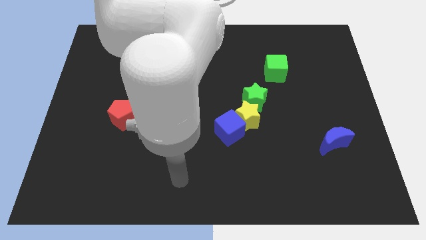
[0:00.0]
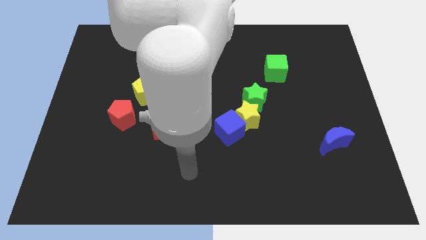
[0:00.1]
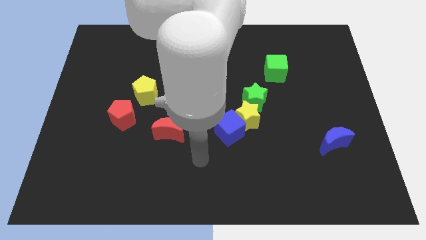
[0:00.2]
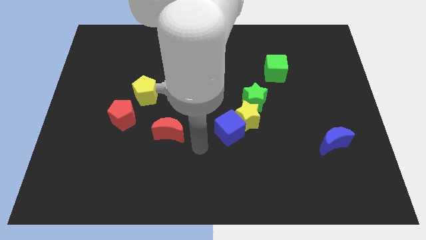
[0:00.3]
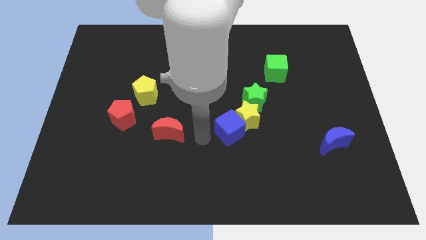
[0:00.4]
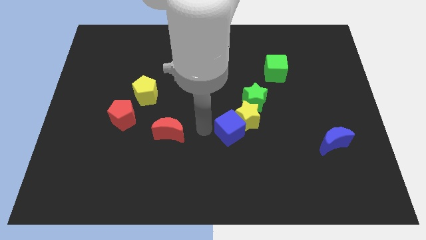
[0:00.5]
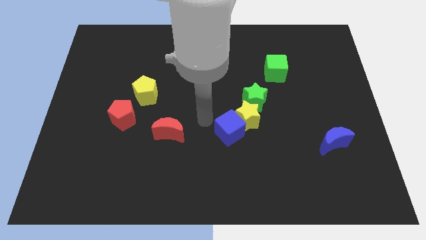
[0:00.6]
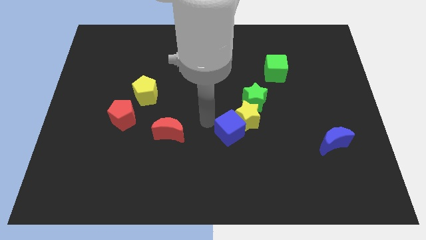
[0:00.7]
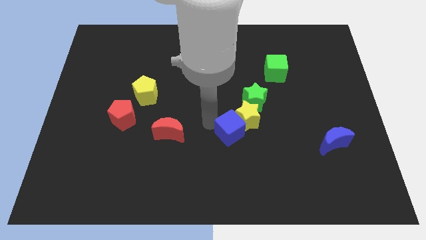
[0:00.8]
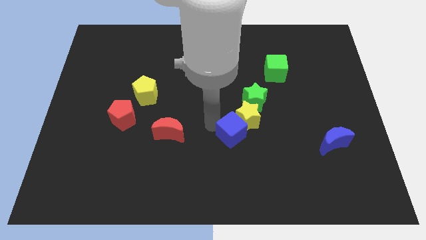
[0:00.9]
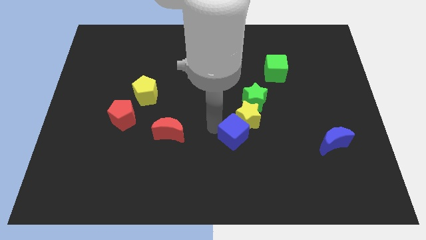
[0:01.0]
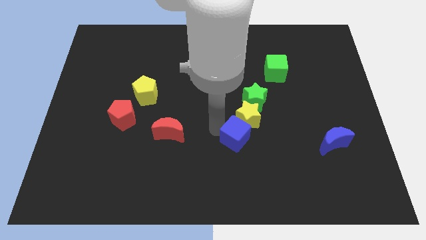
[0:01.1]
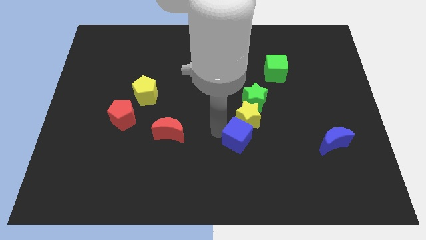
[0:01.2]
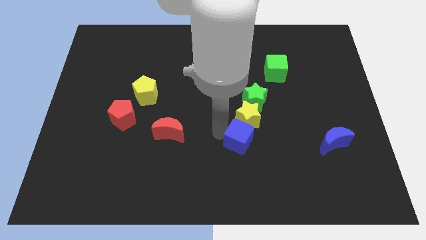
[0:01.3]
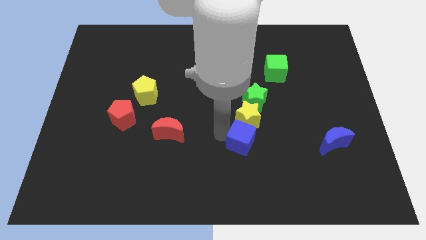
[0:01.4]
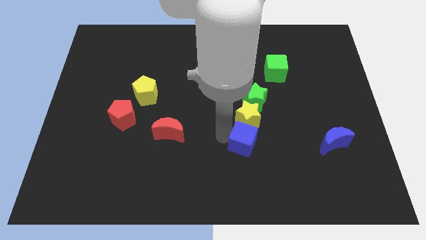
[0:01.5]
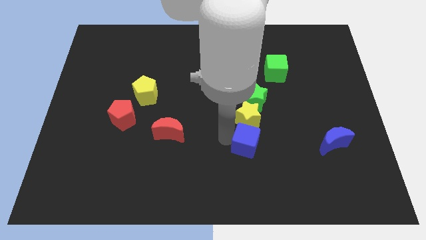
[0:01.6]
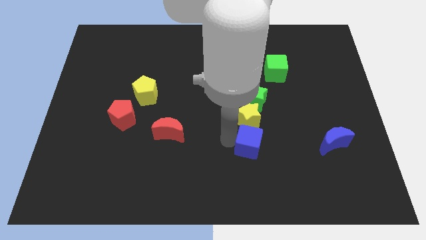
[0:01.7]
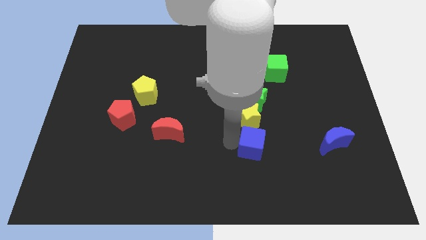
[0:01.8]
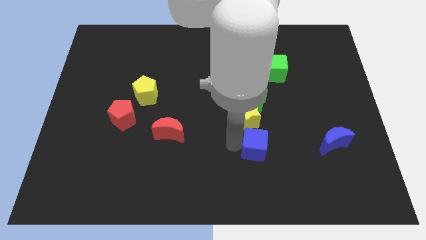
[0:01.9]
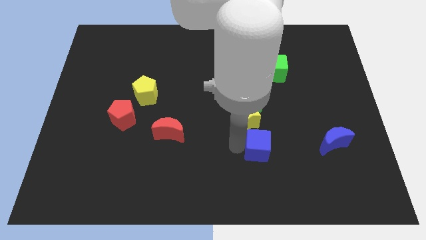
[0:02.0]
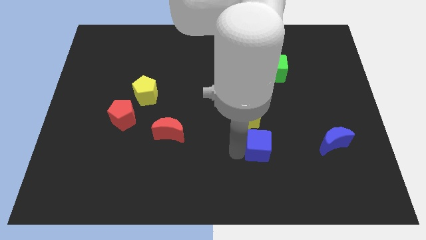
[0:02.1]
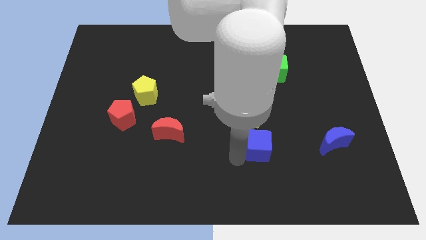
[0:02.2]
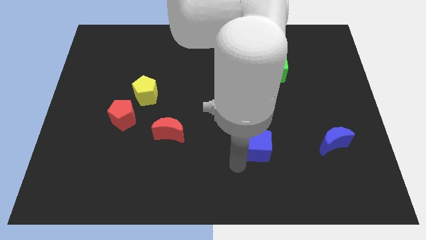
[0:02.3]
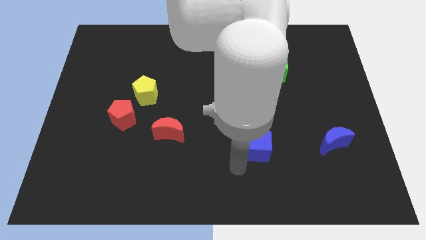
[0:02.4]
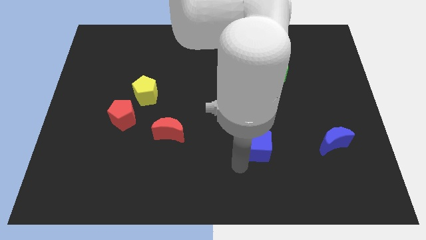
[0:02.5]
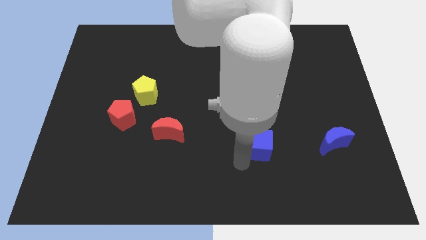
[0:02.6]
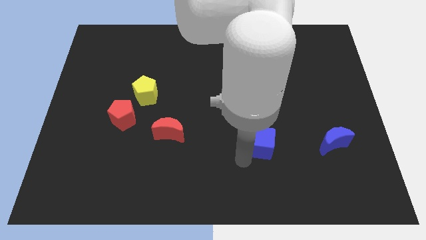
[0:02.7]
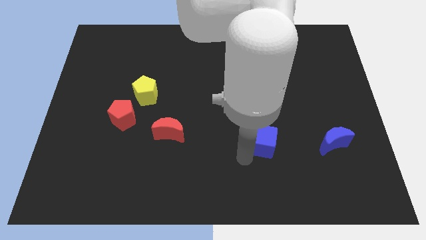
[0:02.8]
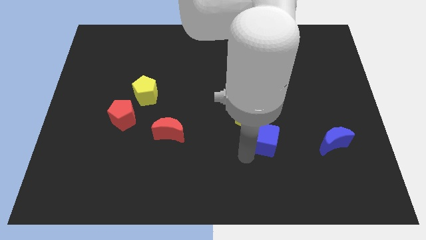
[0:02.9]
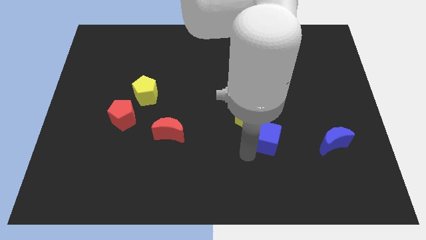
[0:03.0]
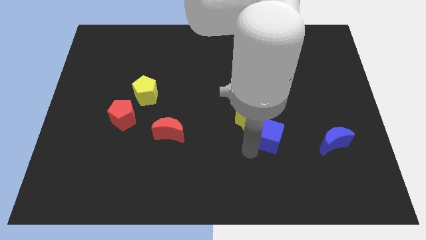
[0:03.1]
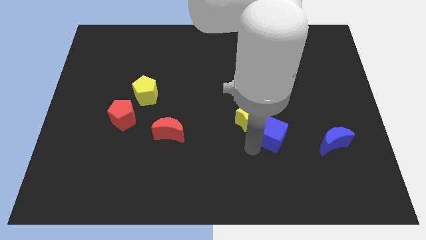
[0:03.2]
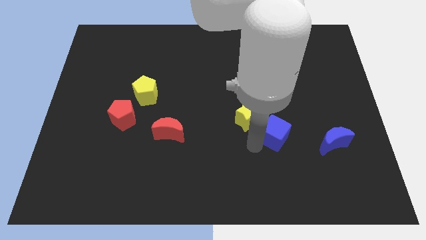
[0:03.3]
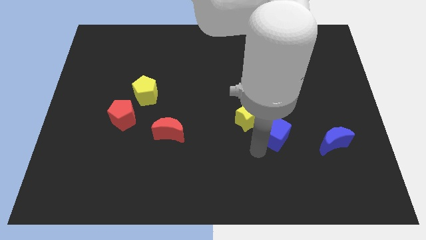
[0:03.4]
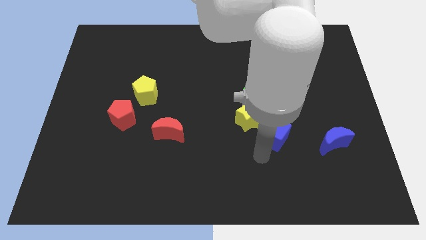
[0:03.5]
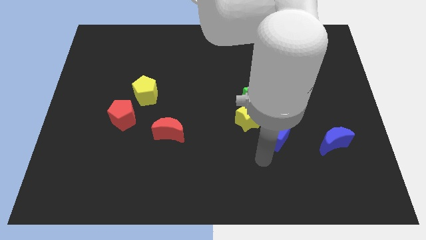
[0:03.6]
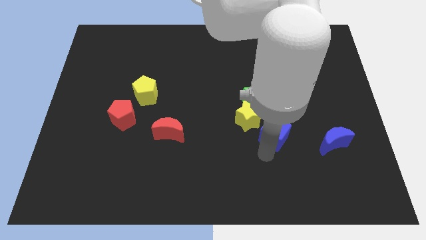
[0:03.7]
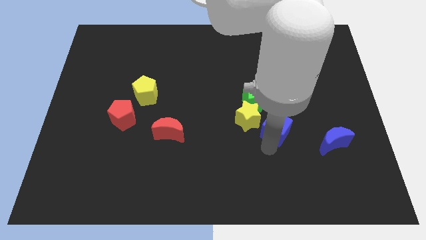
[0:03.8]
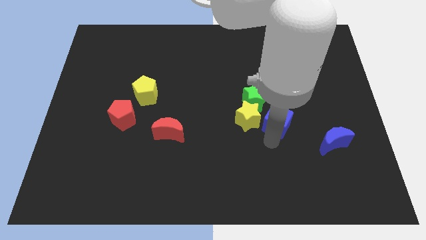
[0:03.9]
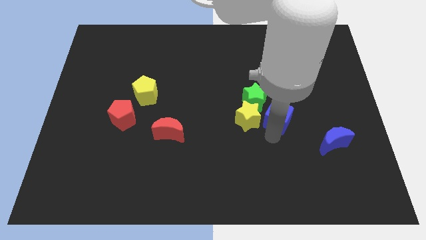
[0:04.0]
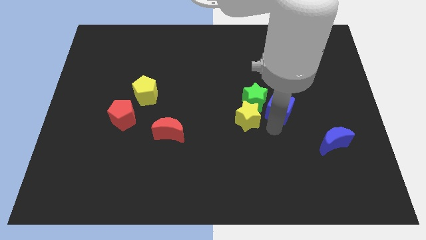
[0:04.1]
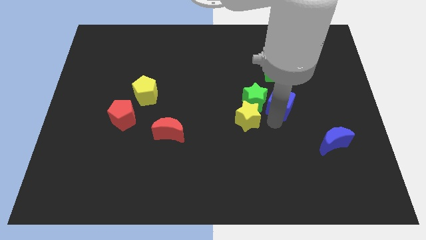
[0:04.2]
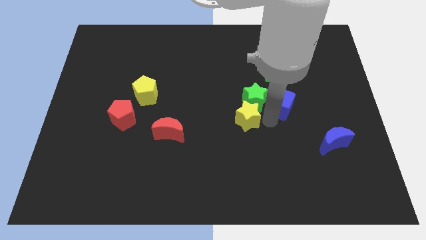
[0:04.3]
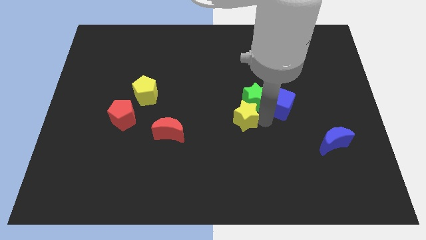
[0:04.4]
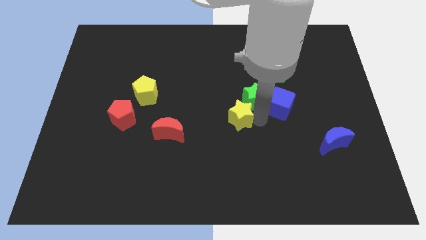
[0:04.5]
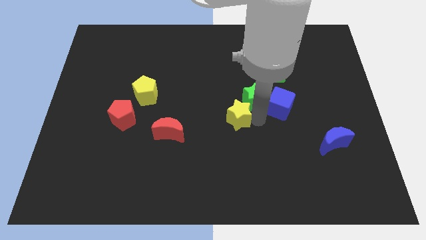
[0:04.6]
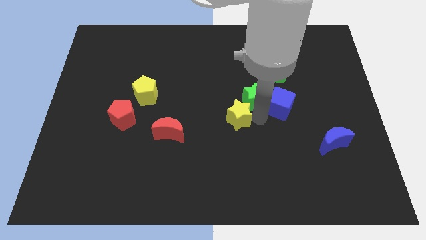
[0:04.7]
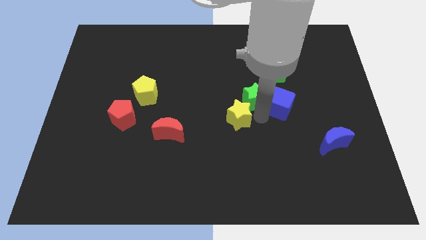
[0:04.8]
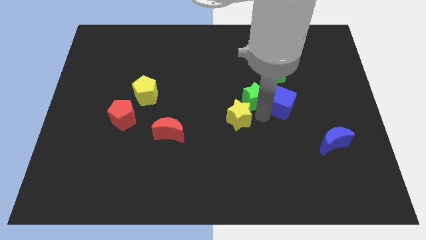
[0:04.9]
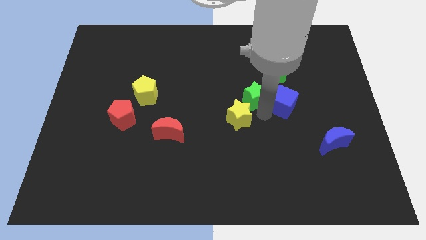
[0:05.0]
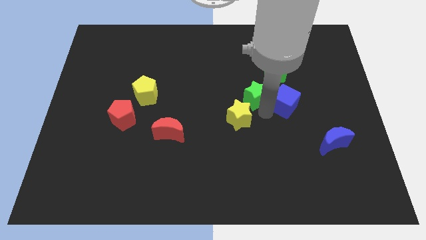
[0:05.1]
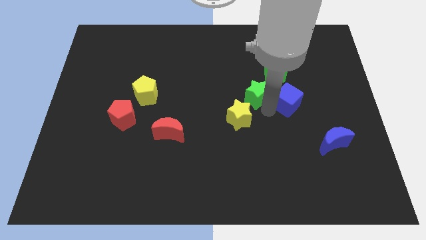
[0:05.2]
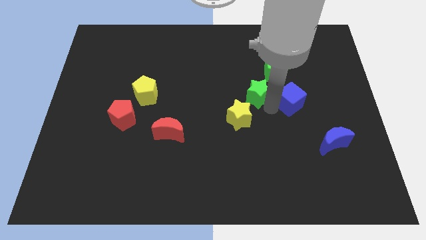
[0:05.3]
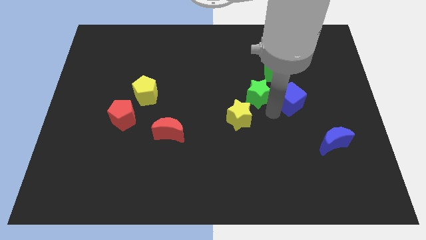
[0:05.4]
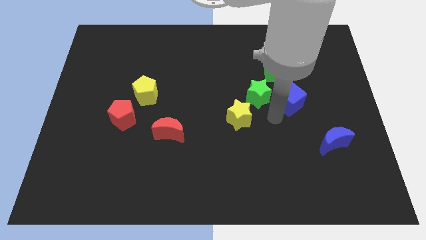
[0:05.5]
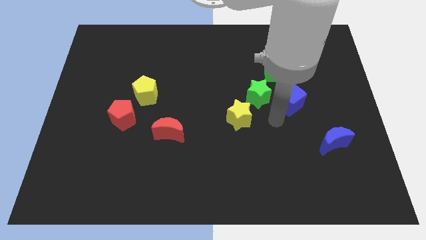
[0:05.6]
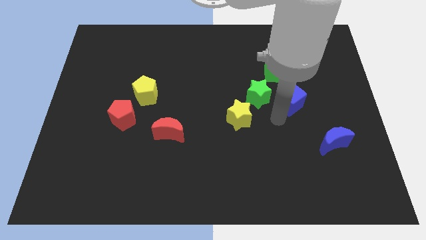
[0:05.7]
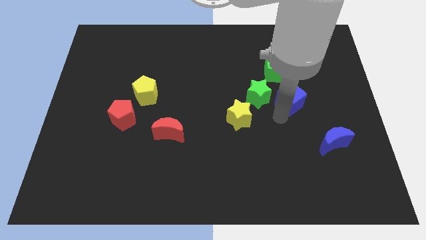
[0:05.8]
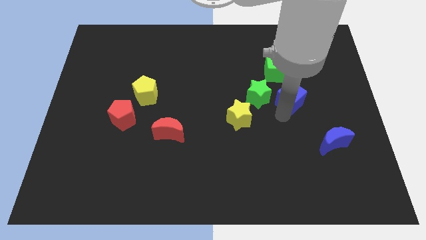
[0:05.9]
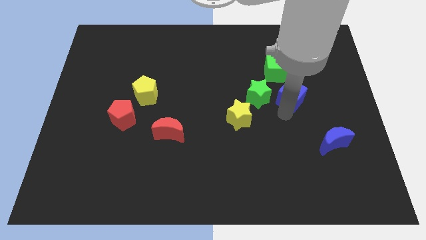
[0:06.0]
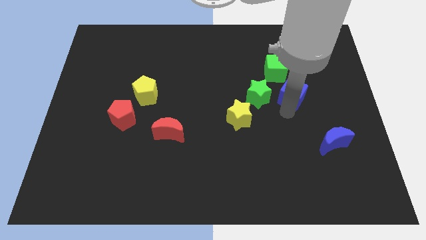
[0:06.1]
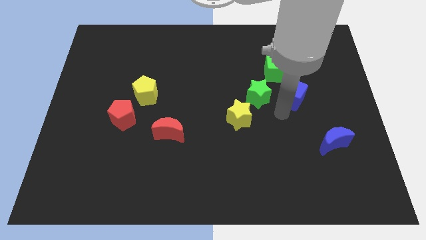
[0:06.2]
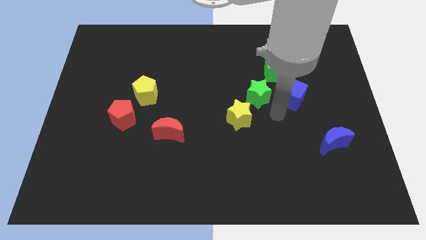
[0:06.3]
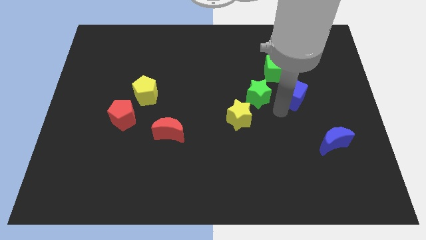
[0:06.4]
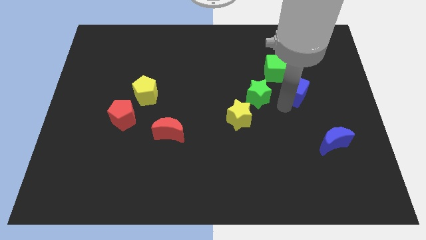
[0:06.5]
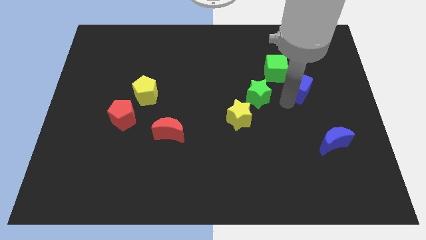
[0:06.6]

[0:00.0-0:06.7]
slide the blue cube upwards and to the right

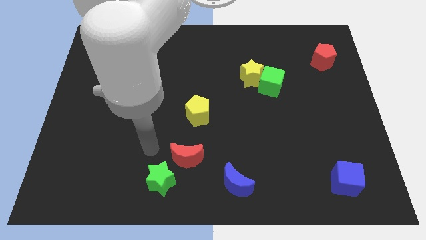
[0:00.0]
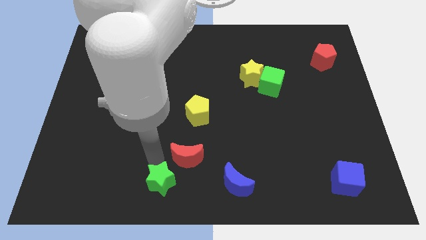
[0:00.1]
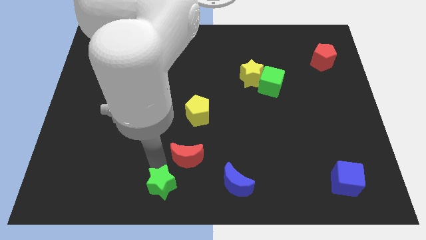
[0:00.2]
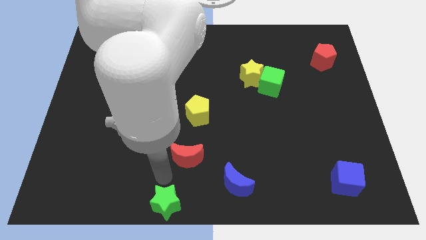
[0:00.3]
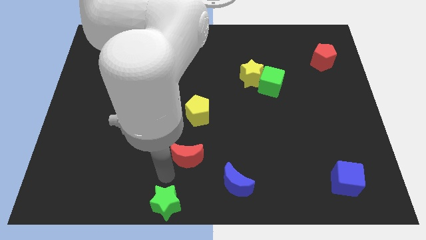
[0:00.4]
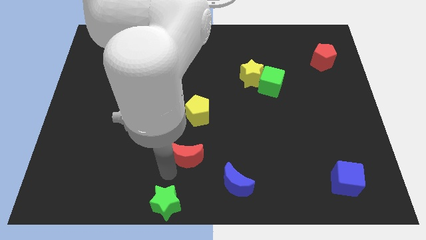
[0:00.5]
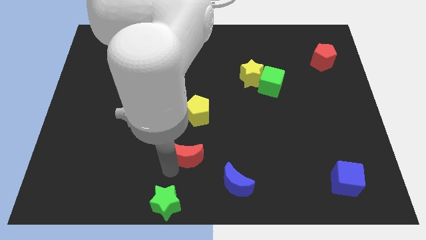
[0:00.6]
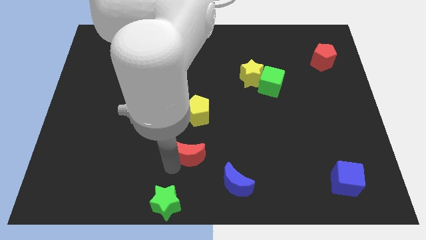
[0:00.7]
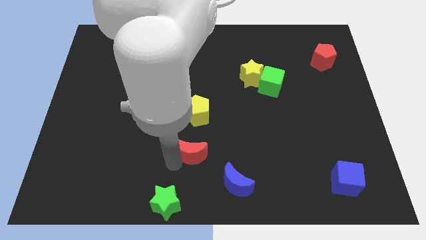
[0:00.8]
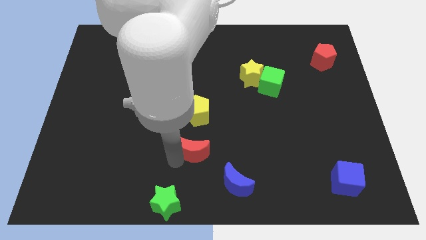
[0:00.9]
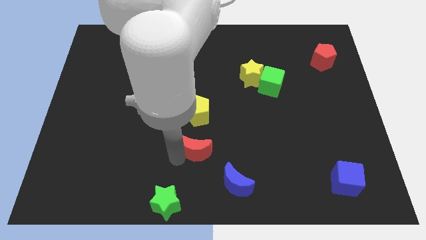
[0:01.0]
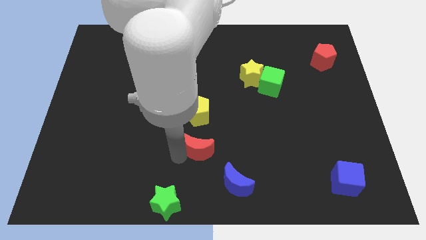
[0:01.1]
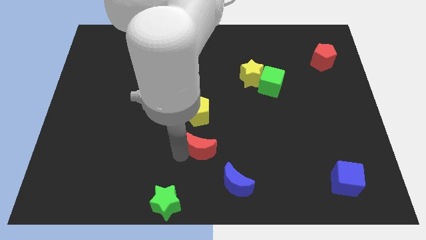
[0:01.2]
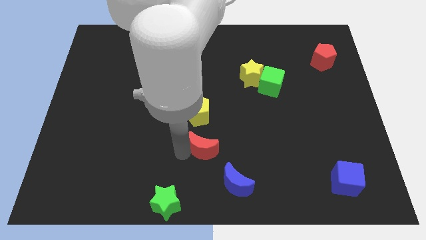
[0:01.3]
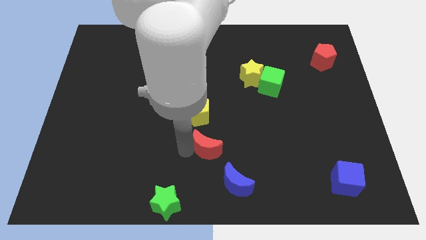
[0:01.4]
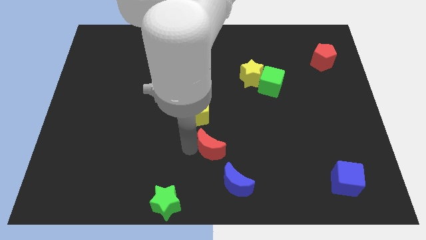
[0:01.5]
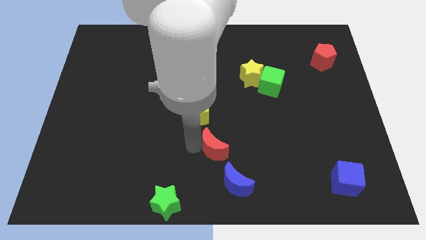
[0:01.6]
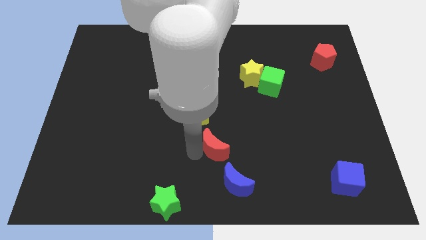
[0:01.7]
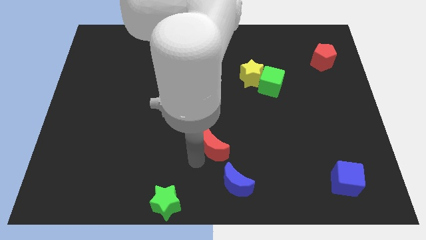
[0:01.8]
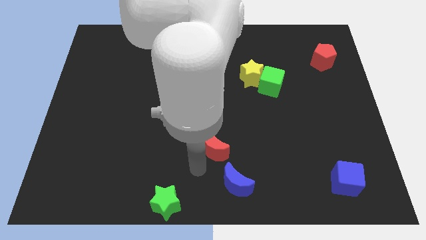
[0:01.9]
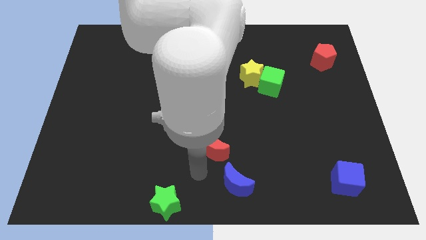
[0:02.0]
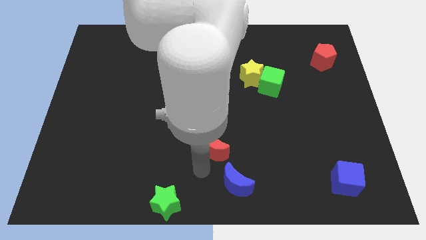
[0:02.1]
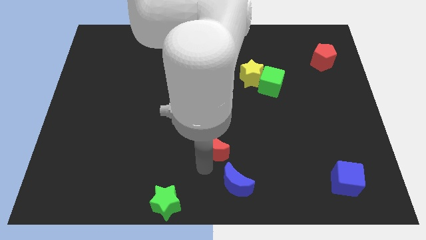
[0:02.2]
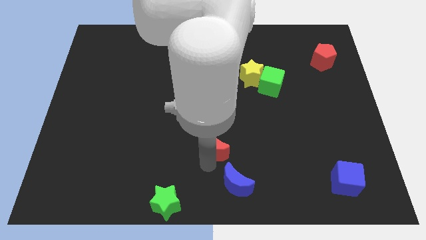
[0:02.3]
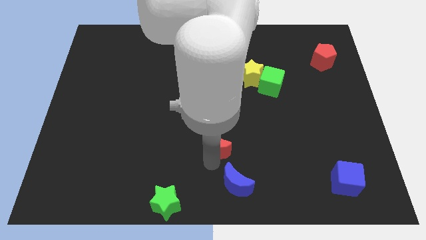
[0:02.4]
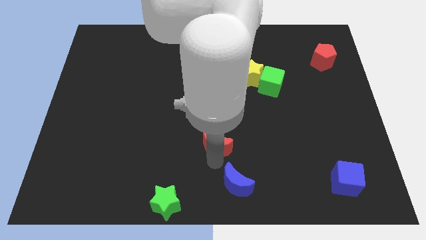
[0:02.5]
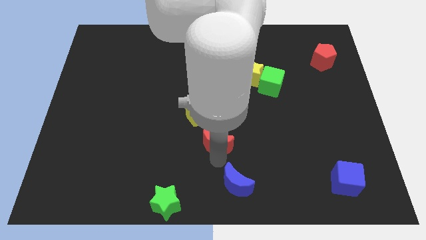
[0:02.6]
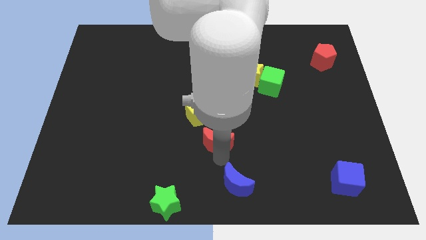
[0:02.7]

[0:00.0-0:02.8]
slide the red moon diagonally up and to the right a little bit
